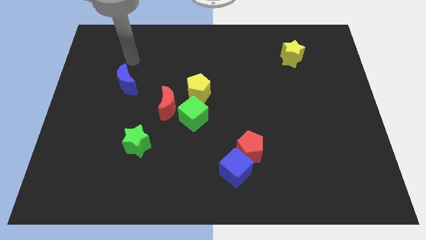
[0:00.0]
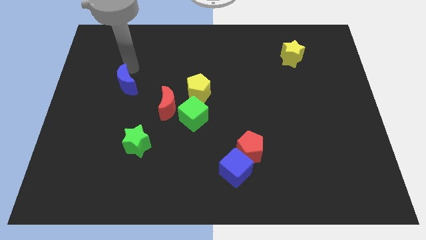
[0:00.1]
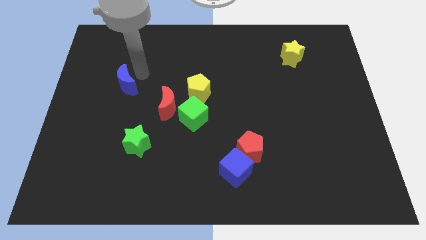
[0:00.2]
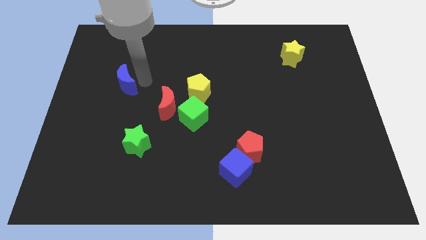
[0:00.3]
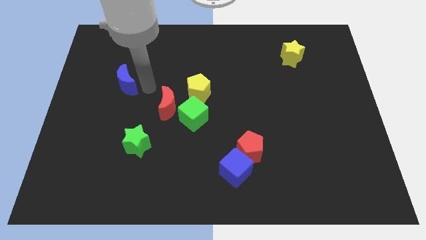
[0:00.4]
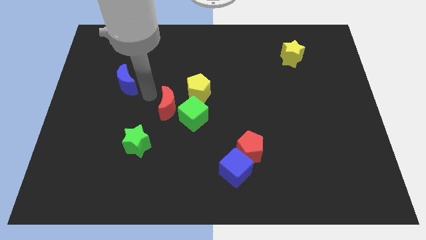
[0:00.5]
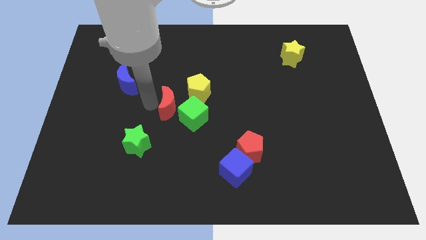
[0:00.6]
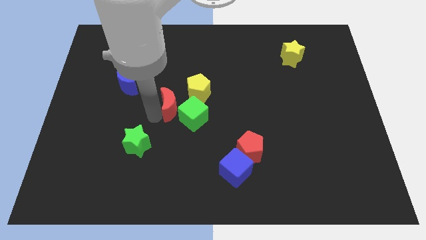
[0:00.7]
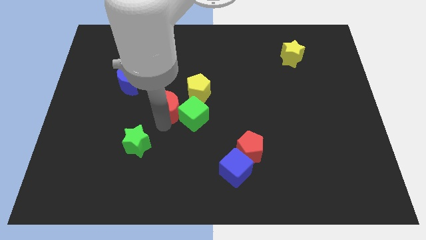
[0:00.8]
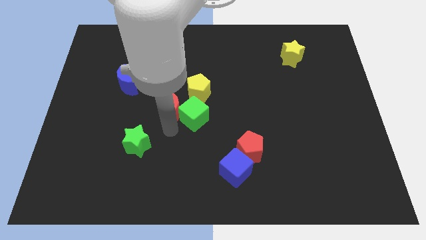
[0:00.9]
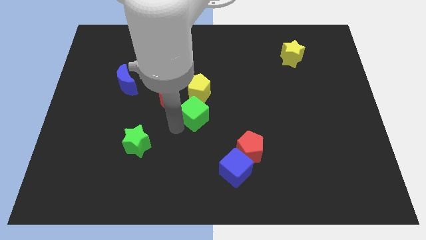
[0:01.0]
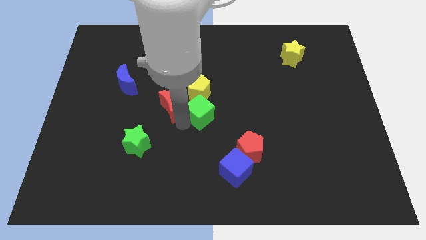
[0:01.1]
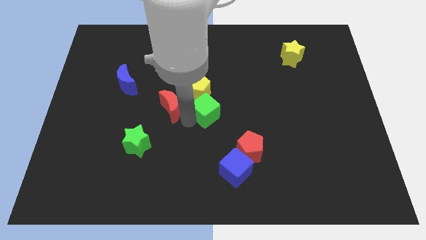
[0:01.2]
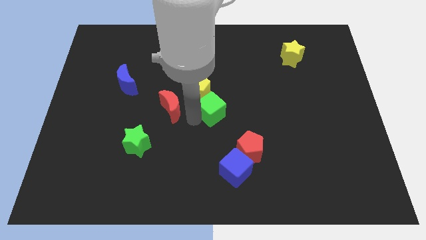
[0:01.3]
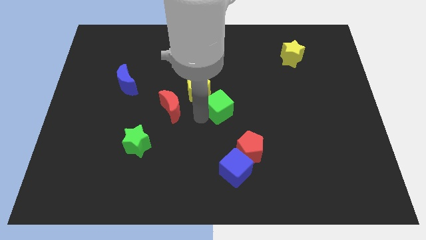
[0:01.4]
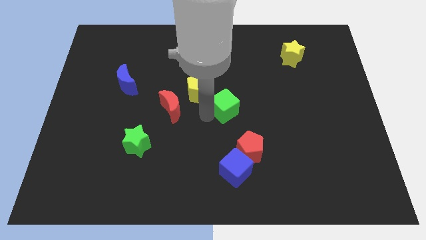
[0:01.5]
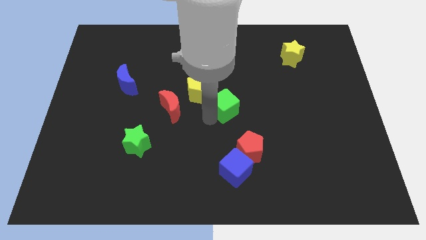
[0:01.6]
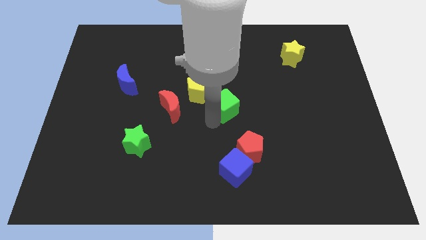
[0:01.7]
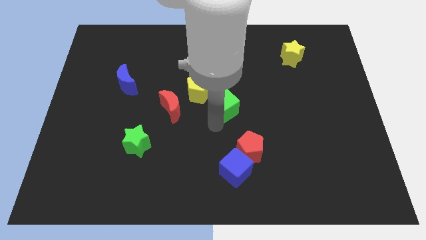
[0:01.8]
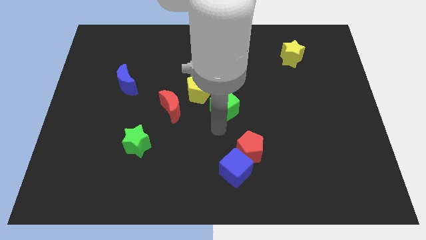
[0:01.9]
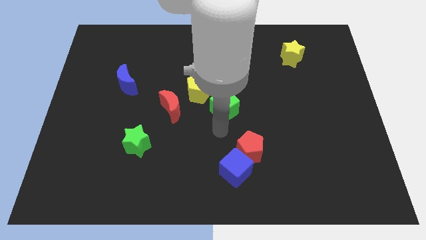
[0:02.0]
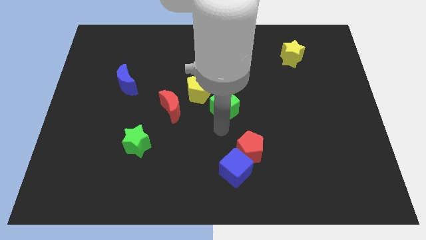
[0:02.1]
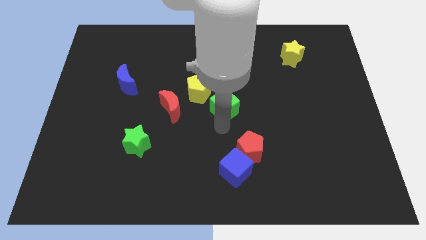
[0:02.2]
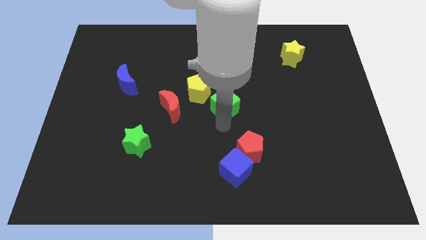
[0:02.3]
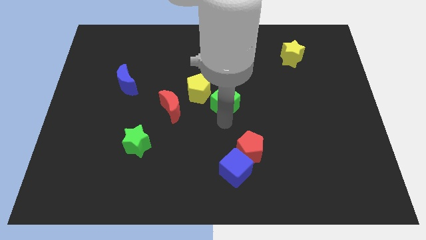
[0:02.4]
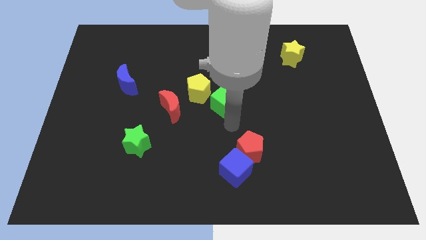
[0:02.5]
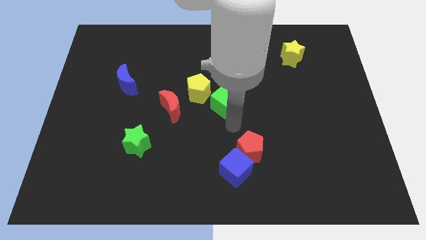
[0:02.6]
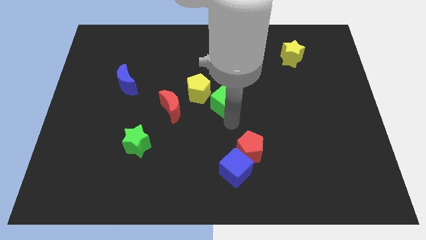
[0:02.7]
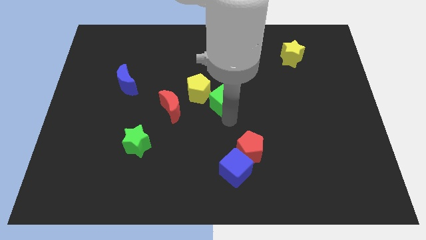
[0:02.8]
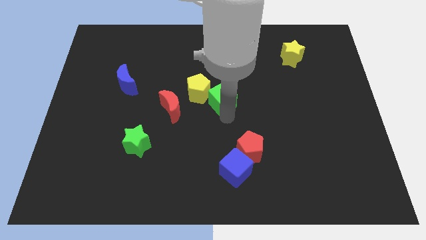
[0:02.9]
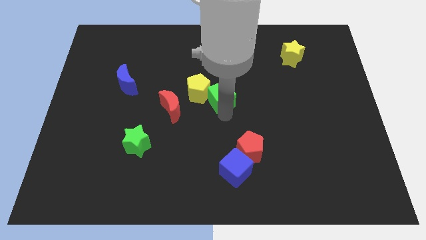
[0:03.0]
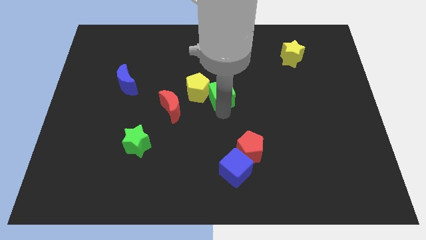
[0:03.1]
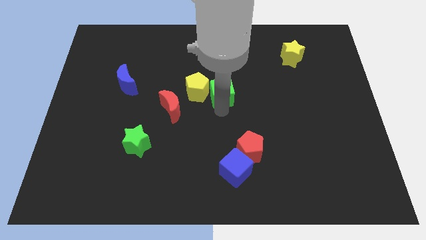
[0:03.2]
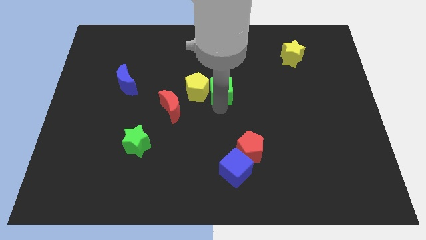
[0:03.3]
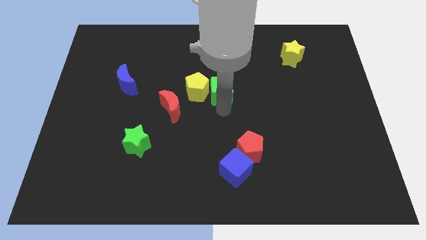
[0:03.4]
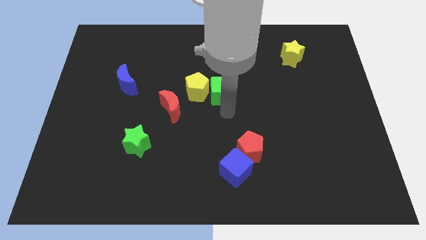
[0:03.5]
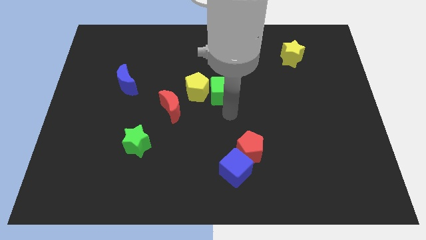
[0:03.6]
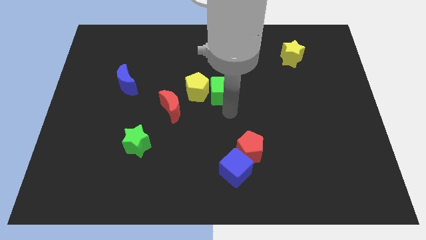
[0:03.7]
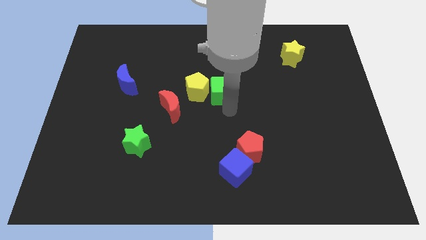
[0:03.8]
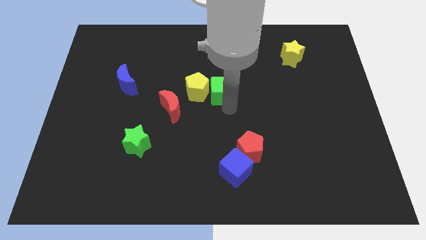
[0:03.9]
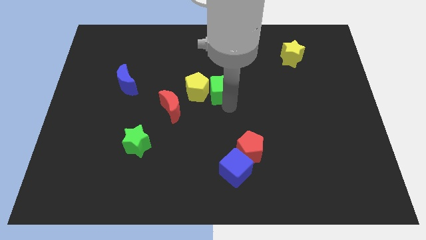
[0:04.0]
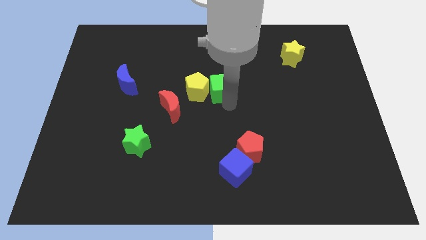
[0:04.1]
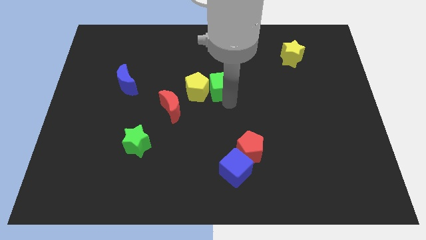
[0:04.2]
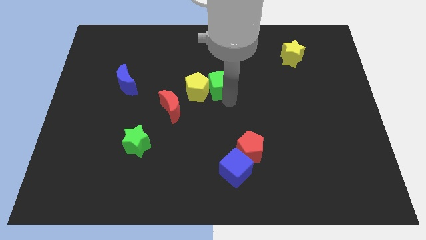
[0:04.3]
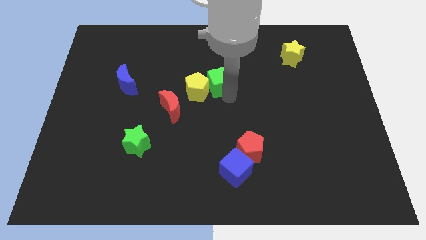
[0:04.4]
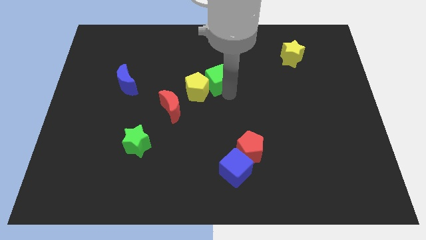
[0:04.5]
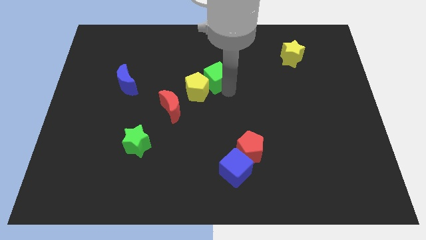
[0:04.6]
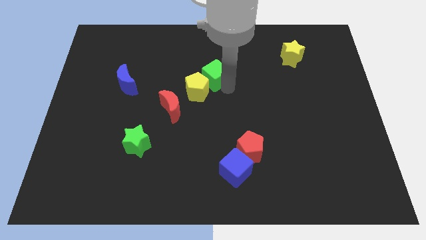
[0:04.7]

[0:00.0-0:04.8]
slide the green cube to the top of the yellow pentagon

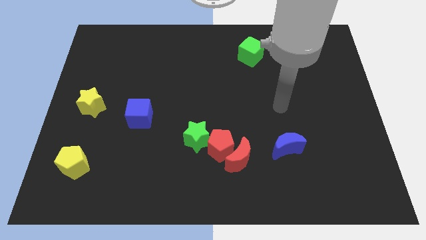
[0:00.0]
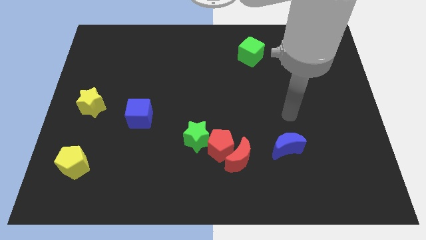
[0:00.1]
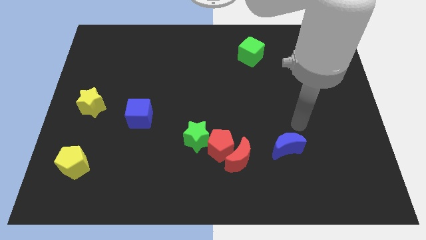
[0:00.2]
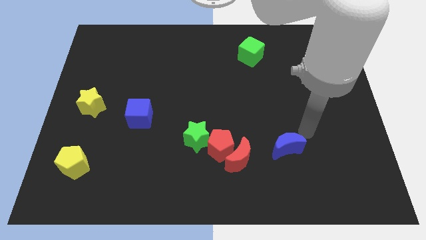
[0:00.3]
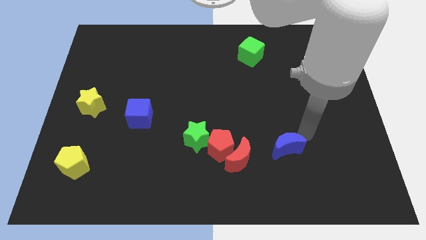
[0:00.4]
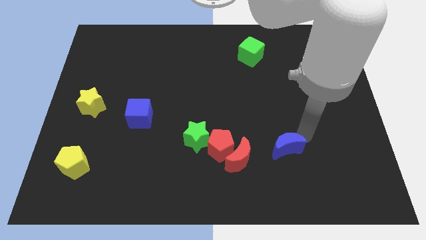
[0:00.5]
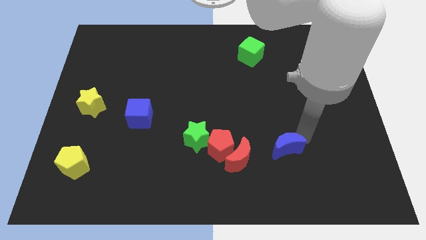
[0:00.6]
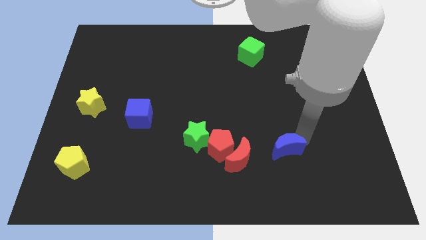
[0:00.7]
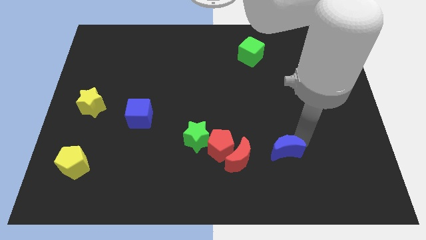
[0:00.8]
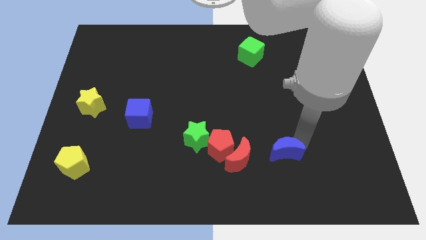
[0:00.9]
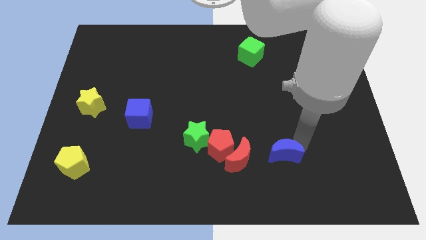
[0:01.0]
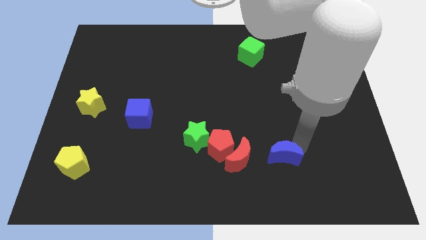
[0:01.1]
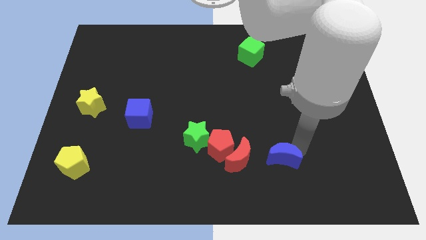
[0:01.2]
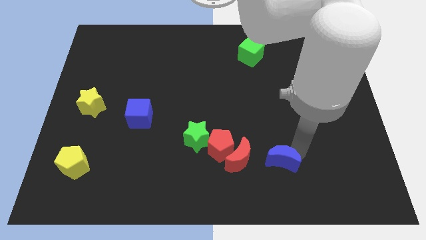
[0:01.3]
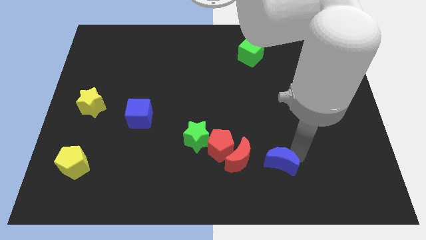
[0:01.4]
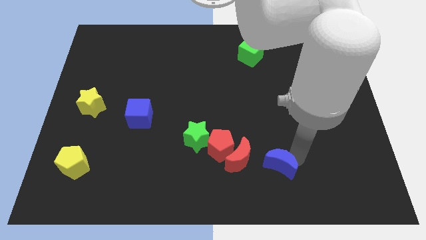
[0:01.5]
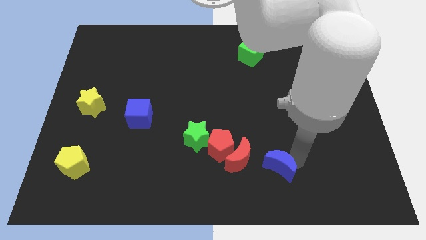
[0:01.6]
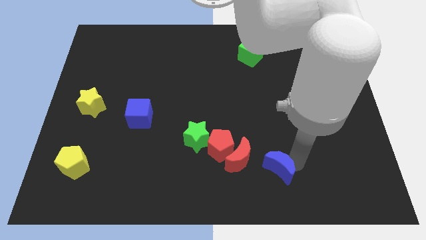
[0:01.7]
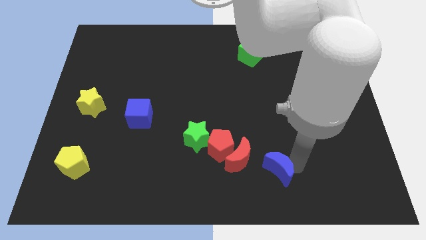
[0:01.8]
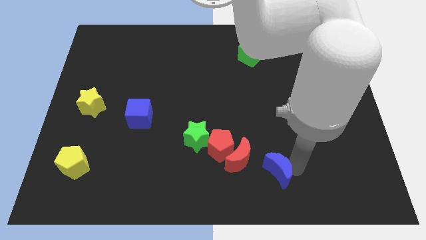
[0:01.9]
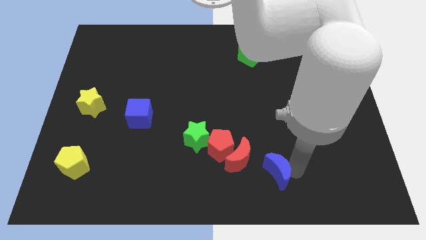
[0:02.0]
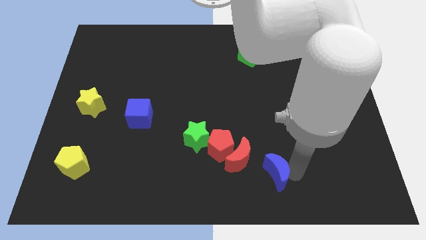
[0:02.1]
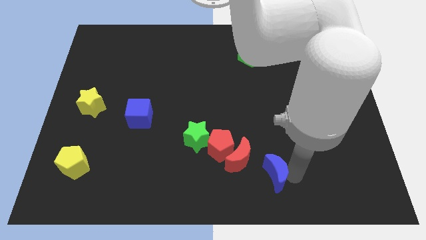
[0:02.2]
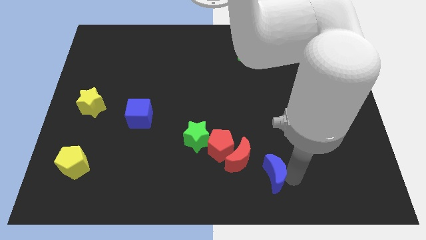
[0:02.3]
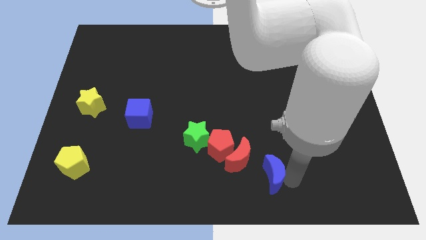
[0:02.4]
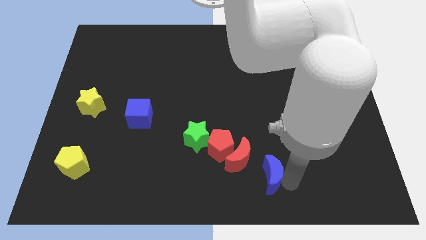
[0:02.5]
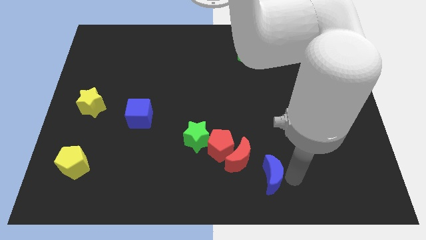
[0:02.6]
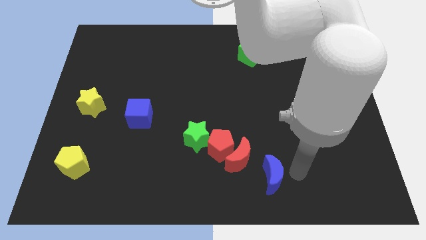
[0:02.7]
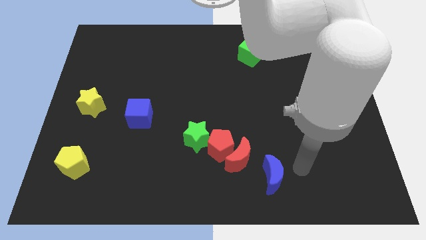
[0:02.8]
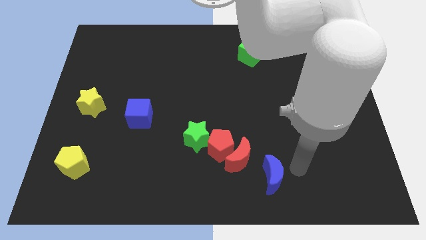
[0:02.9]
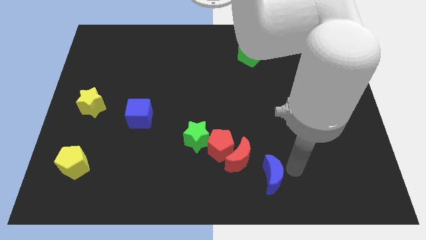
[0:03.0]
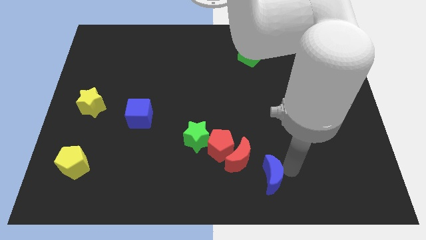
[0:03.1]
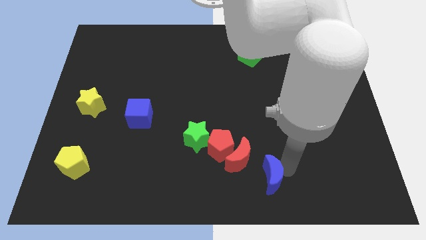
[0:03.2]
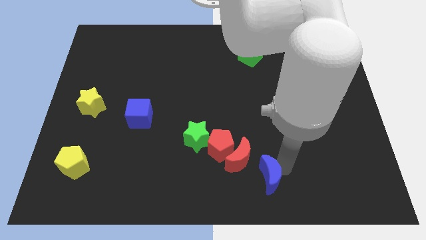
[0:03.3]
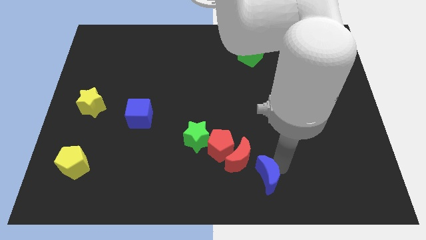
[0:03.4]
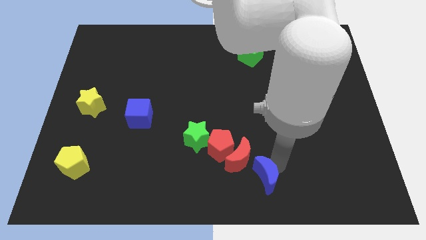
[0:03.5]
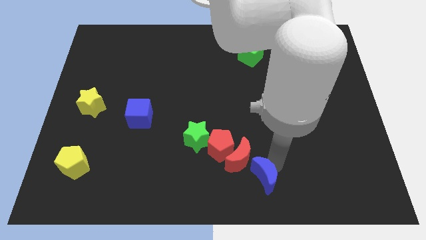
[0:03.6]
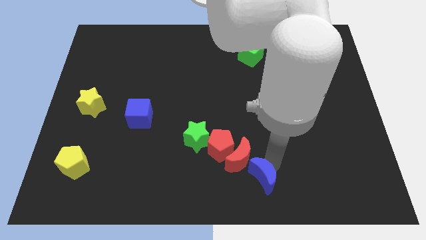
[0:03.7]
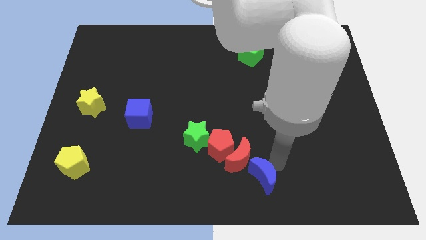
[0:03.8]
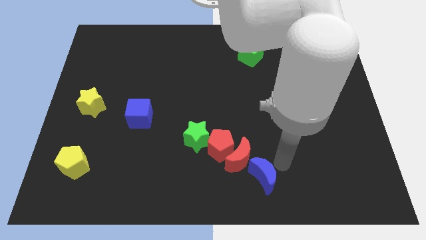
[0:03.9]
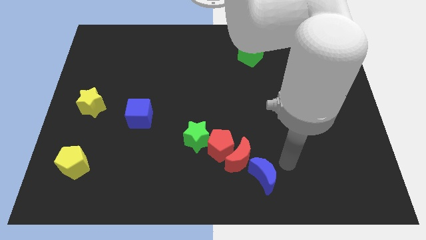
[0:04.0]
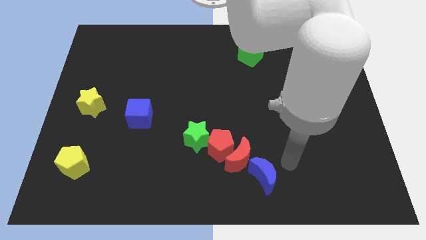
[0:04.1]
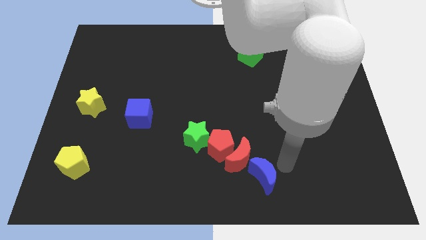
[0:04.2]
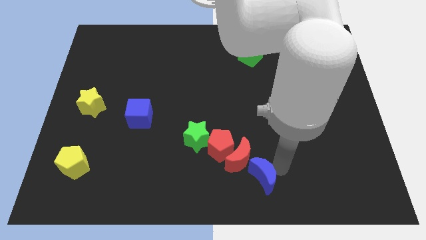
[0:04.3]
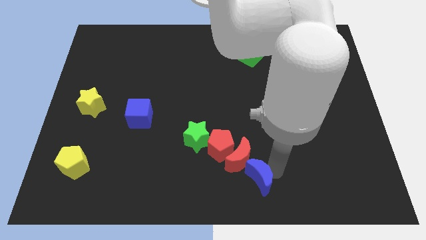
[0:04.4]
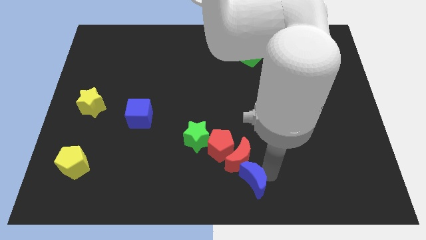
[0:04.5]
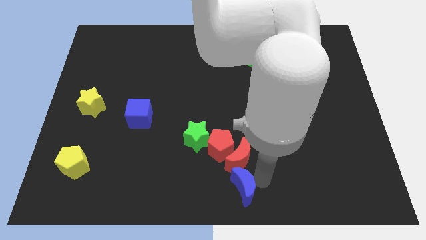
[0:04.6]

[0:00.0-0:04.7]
push the blue moon diagonally down and to the left of the red moon
